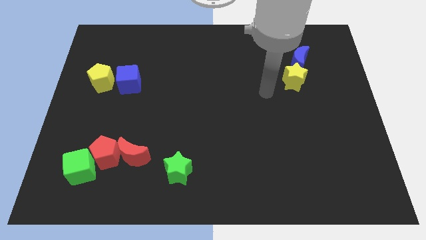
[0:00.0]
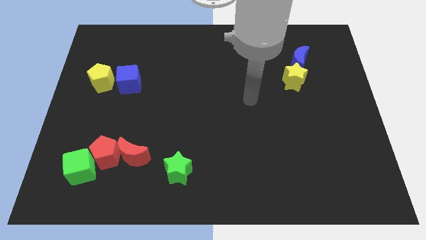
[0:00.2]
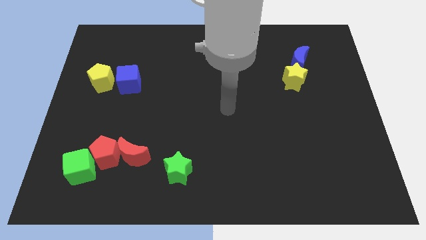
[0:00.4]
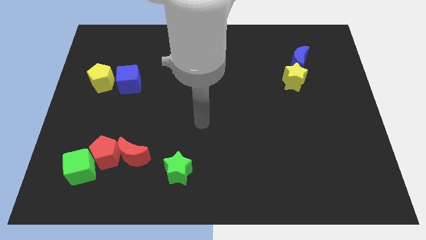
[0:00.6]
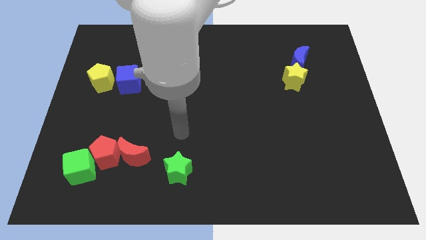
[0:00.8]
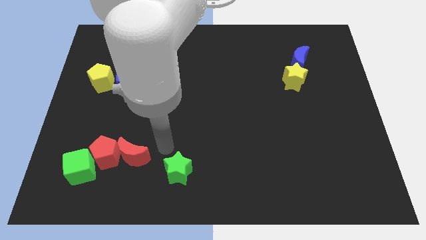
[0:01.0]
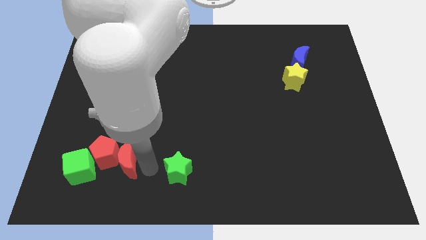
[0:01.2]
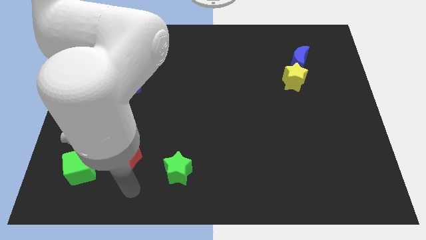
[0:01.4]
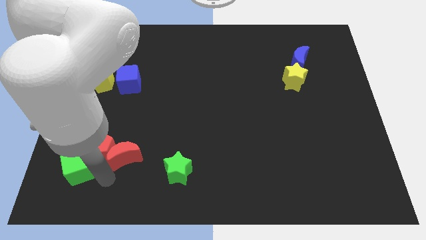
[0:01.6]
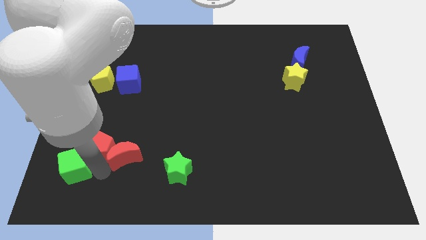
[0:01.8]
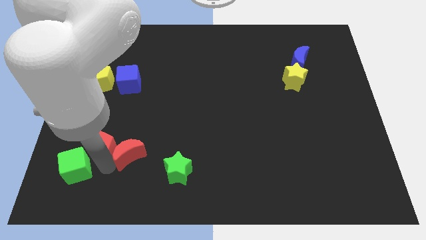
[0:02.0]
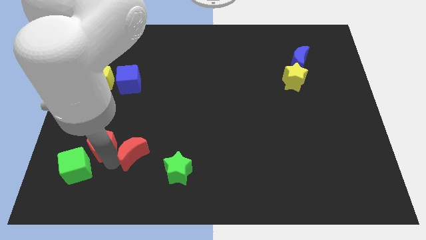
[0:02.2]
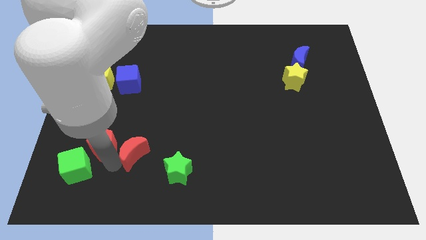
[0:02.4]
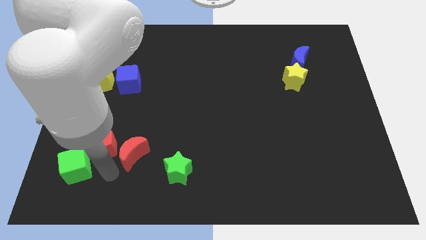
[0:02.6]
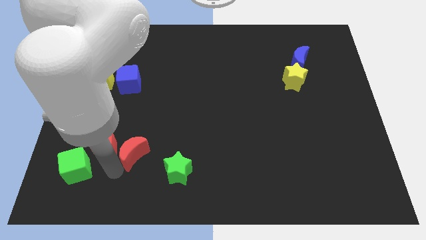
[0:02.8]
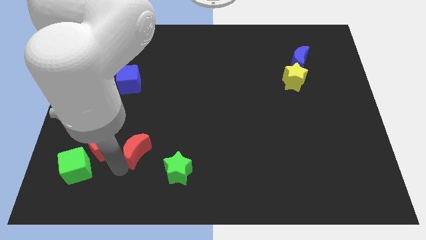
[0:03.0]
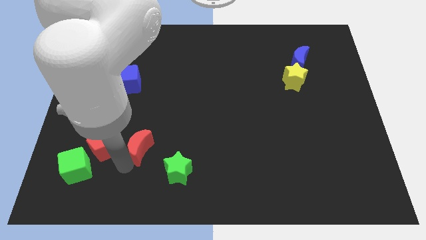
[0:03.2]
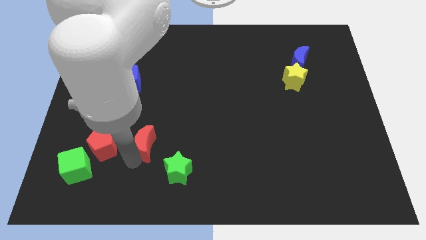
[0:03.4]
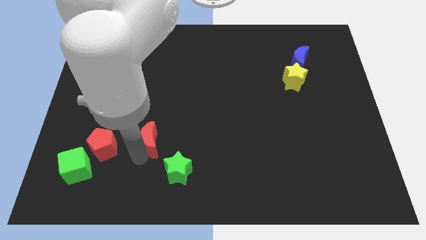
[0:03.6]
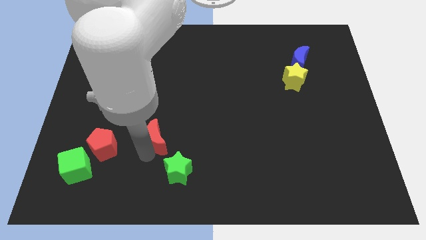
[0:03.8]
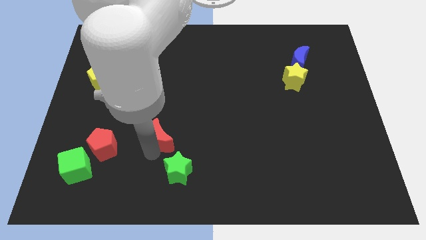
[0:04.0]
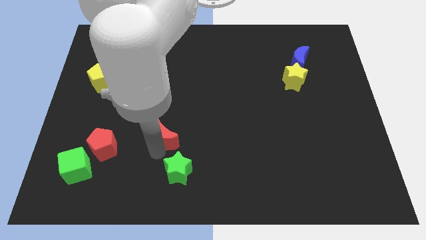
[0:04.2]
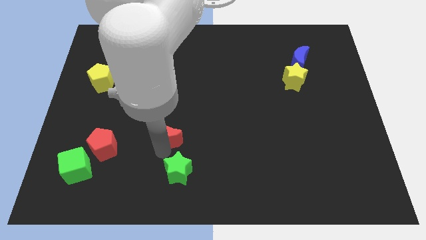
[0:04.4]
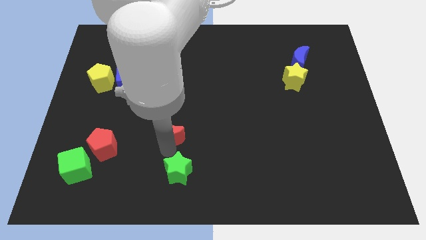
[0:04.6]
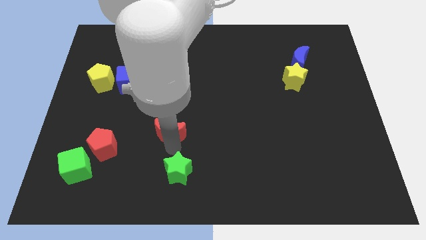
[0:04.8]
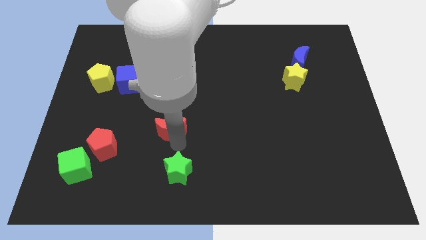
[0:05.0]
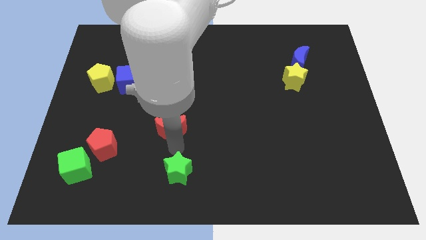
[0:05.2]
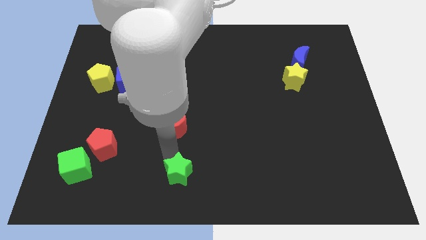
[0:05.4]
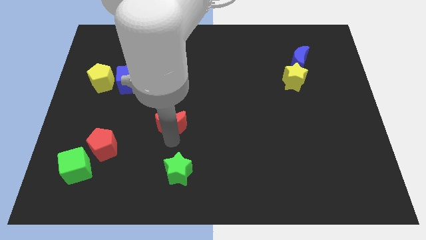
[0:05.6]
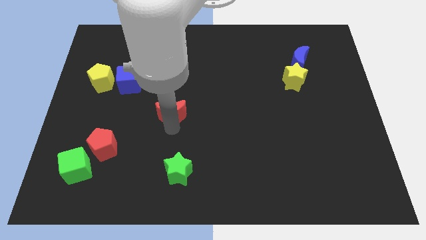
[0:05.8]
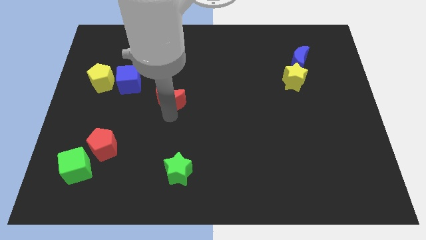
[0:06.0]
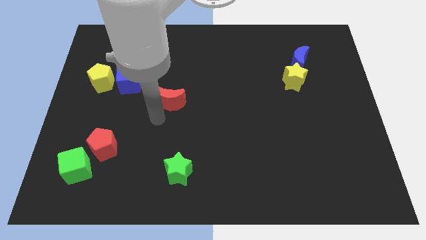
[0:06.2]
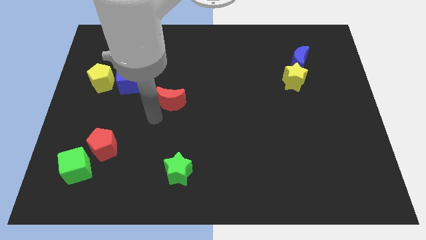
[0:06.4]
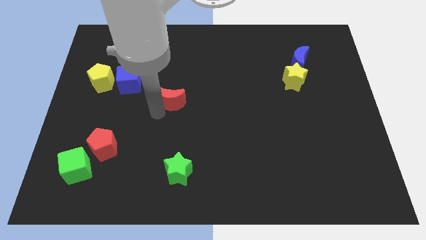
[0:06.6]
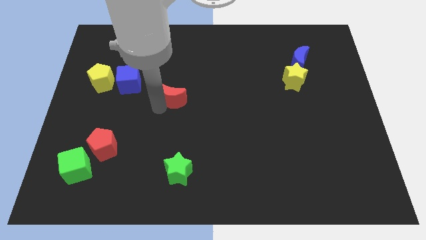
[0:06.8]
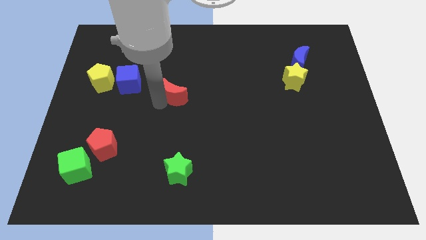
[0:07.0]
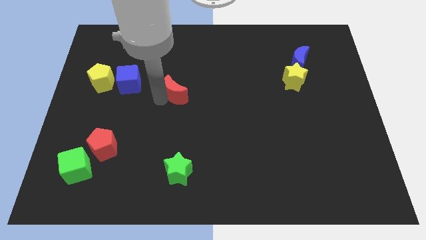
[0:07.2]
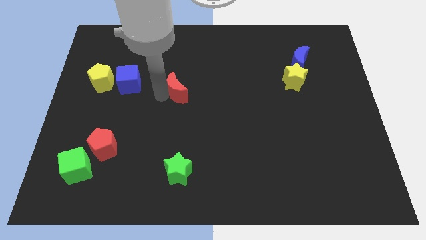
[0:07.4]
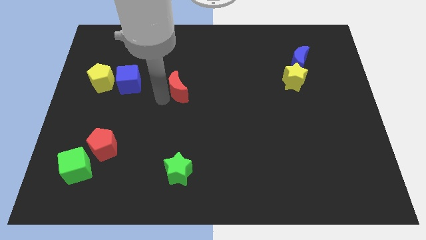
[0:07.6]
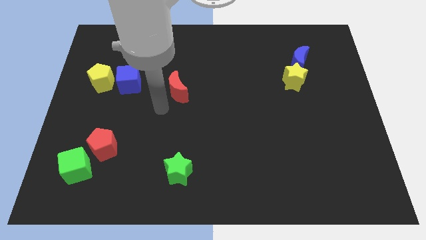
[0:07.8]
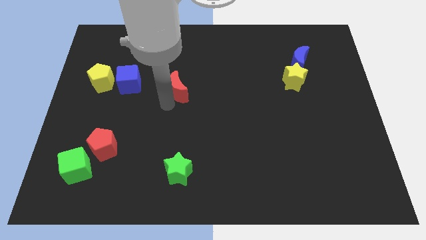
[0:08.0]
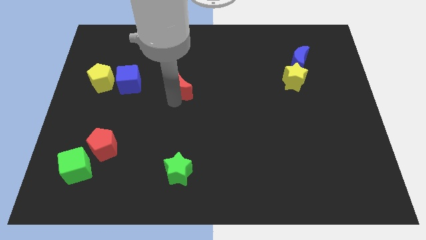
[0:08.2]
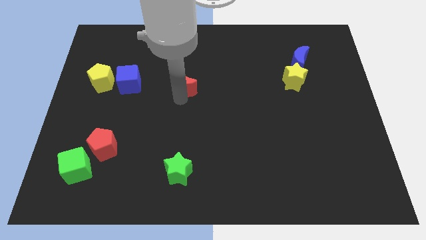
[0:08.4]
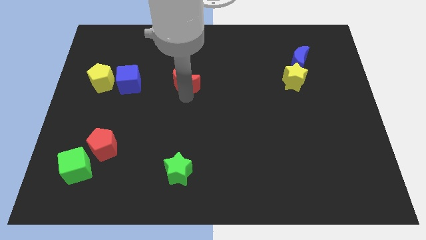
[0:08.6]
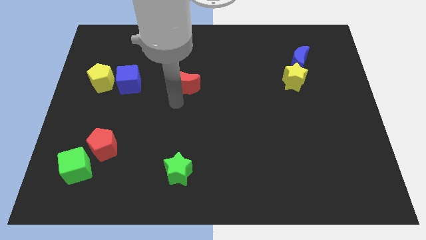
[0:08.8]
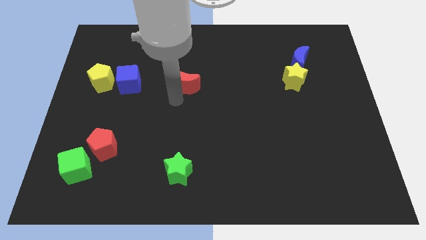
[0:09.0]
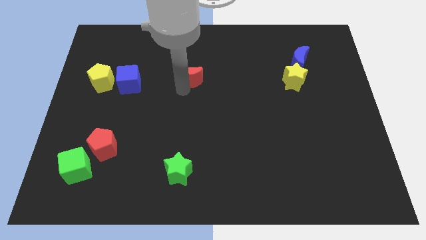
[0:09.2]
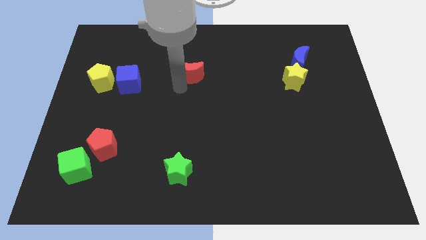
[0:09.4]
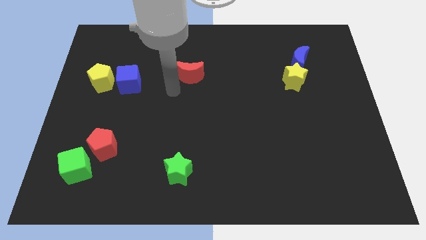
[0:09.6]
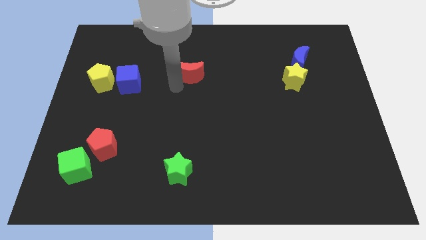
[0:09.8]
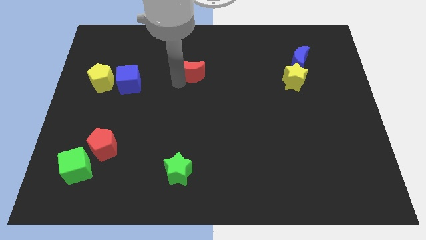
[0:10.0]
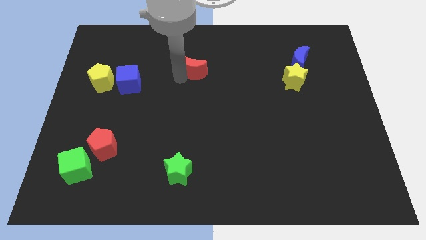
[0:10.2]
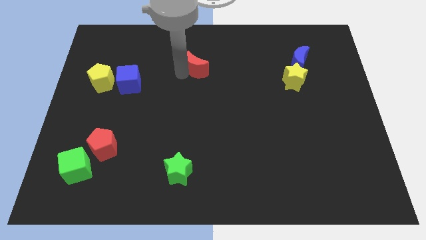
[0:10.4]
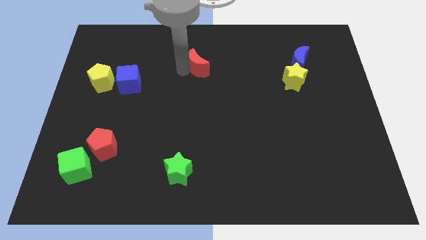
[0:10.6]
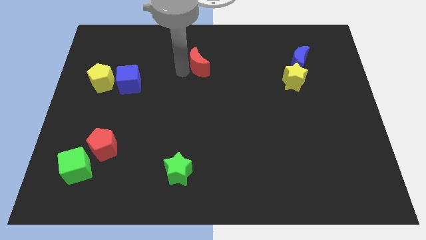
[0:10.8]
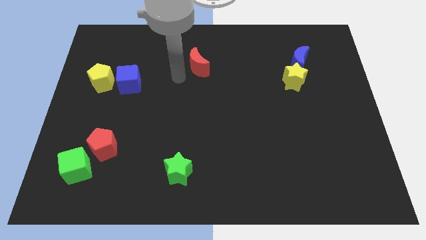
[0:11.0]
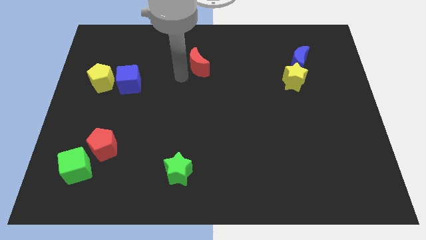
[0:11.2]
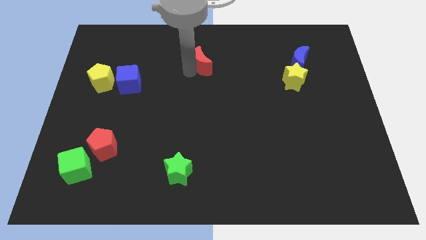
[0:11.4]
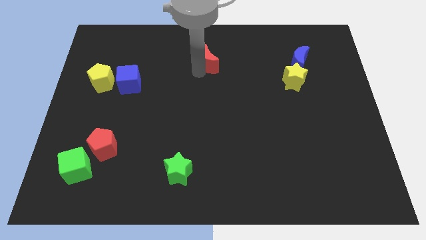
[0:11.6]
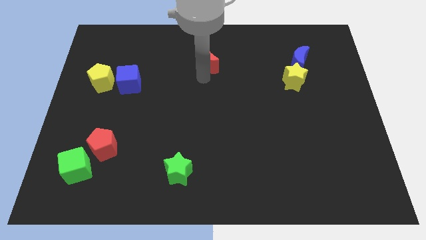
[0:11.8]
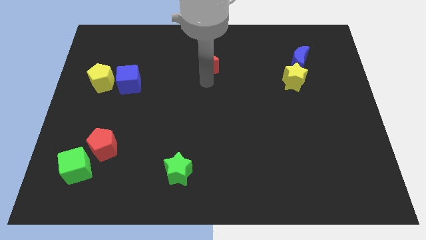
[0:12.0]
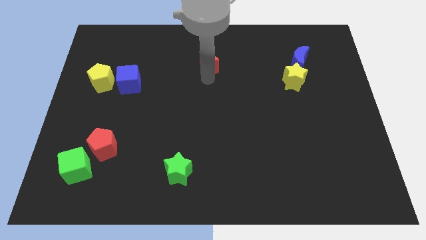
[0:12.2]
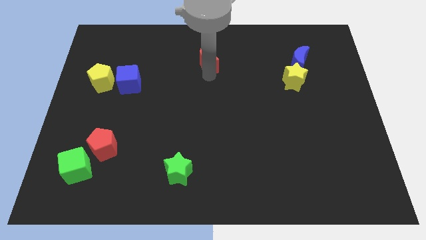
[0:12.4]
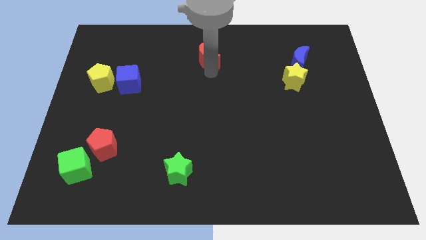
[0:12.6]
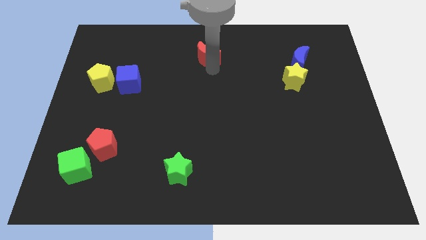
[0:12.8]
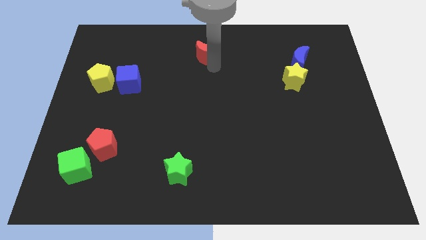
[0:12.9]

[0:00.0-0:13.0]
slide the red moon to the top side
